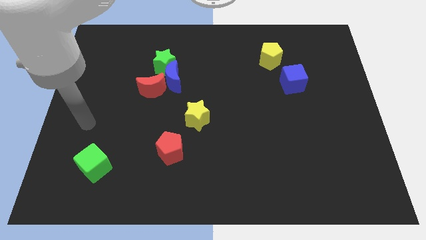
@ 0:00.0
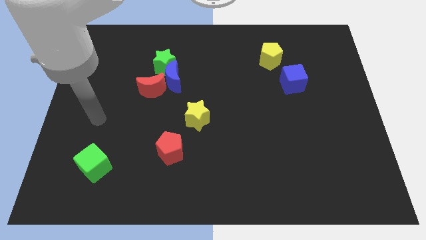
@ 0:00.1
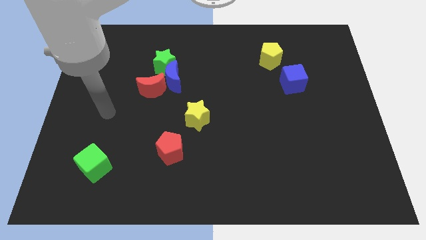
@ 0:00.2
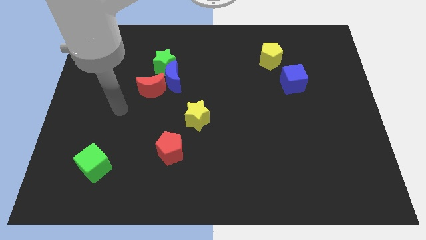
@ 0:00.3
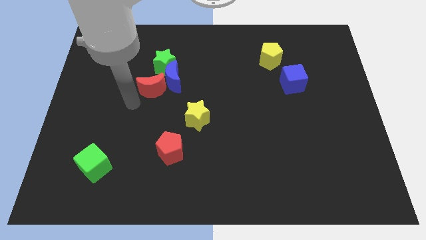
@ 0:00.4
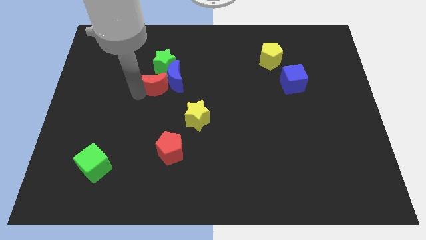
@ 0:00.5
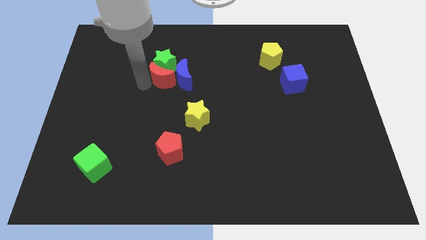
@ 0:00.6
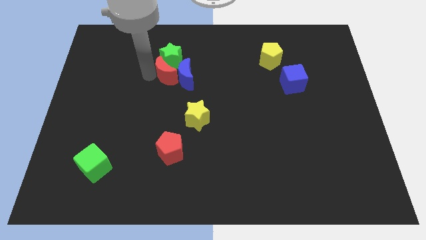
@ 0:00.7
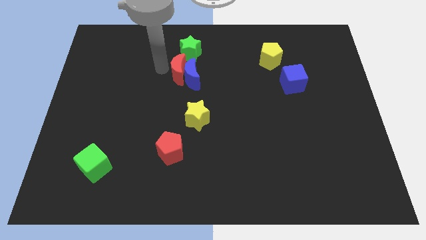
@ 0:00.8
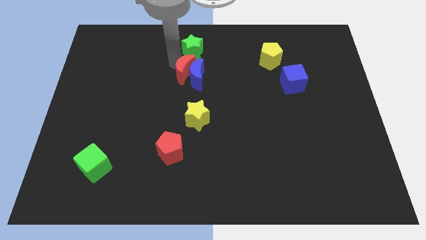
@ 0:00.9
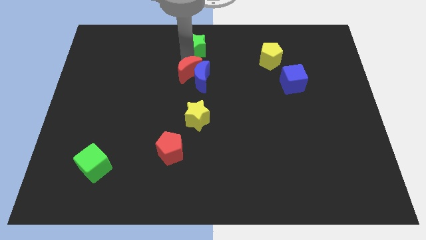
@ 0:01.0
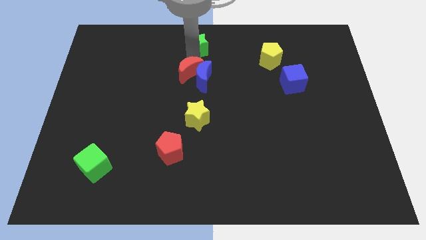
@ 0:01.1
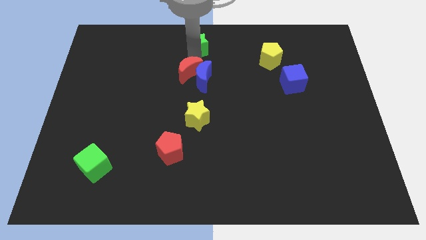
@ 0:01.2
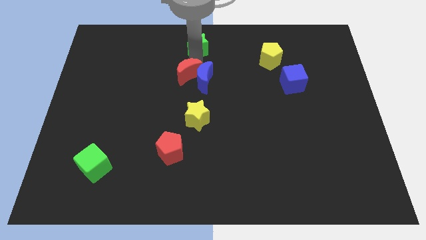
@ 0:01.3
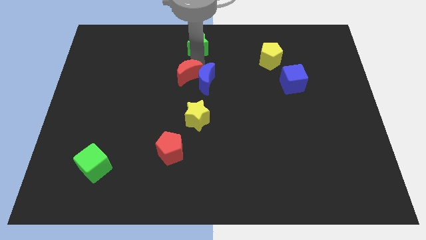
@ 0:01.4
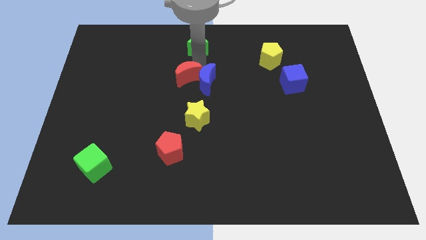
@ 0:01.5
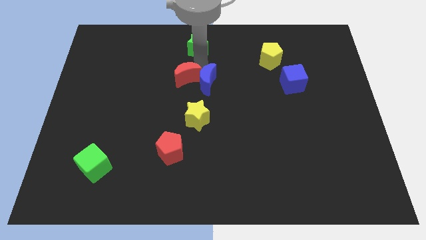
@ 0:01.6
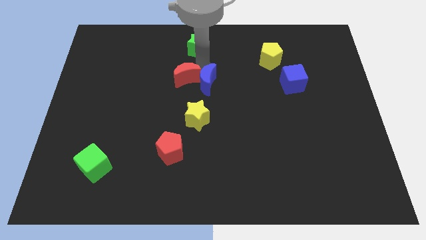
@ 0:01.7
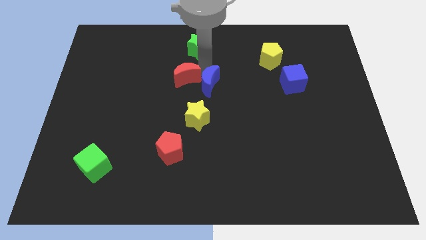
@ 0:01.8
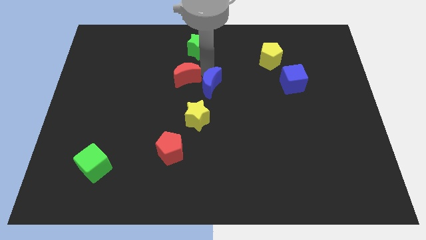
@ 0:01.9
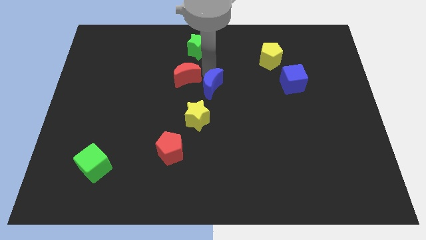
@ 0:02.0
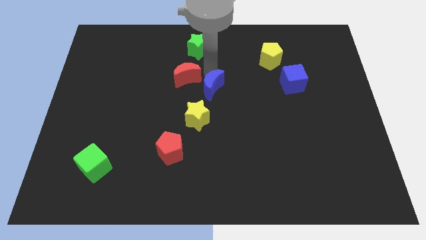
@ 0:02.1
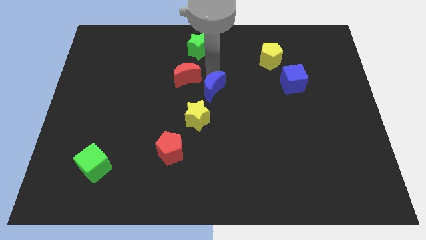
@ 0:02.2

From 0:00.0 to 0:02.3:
separate the blue moon from the green star and red moon

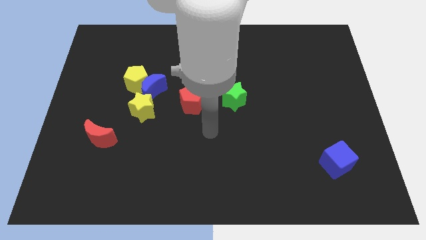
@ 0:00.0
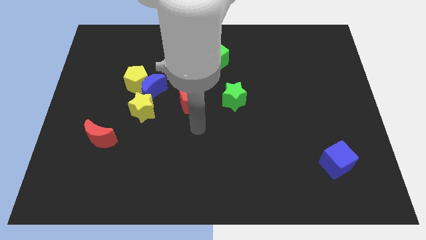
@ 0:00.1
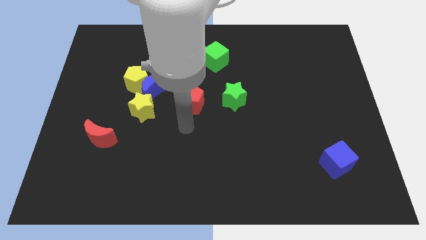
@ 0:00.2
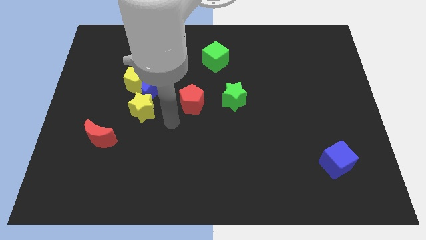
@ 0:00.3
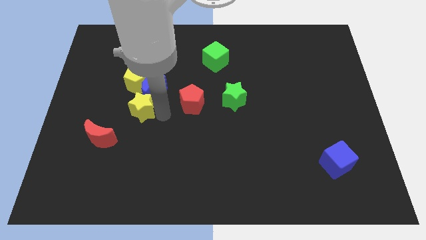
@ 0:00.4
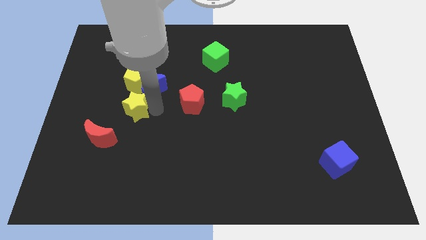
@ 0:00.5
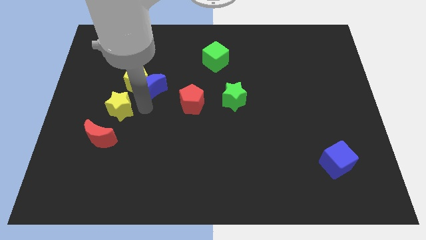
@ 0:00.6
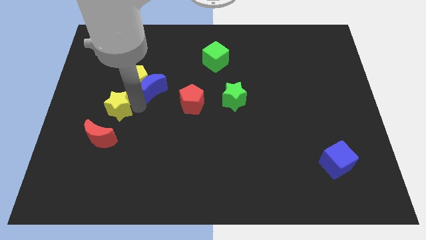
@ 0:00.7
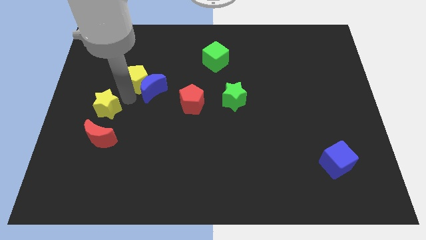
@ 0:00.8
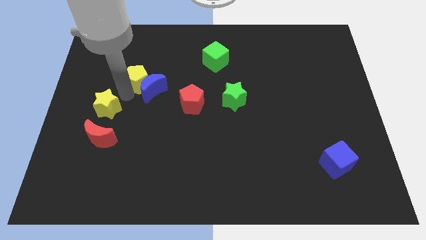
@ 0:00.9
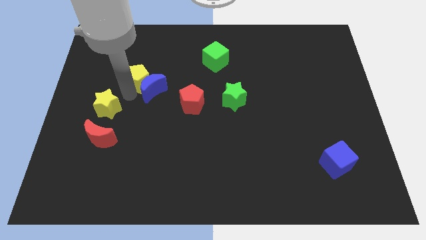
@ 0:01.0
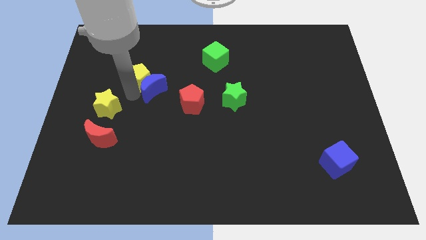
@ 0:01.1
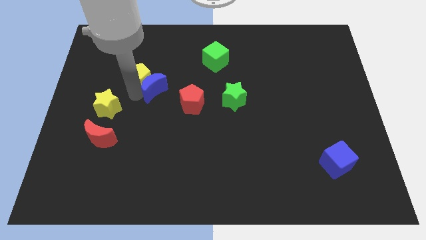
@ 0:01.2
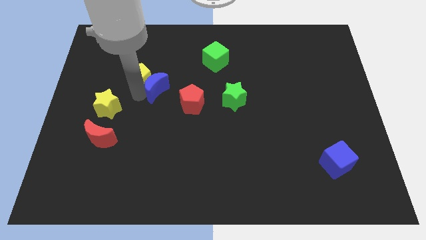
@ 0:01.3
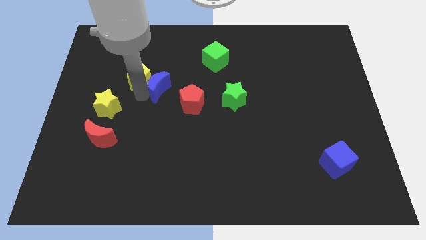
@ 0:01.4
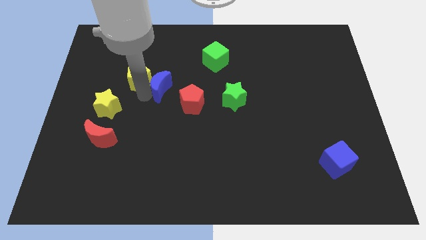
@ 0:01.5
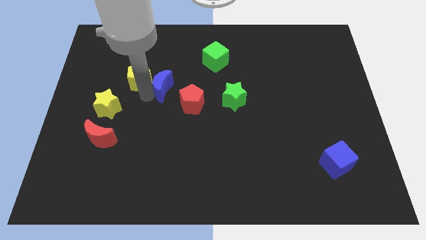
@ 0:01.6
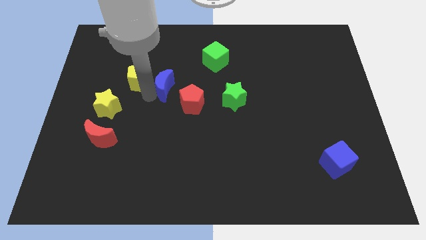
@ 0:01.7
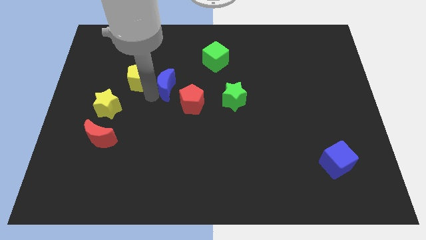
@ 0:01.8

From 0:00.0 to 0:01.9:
move the blue moon away from the yellow pentagon and yellow star

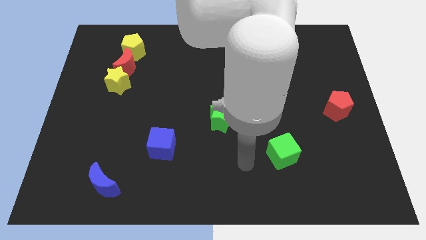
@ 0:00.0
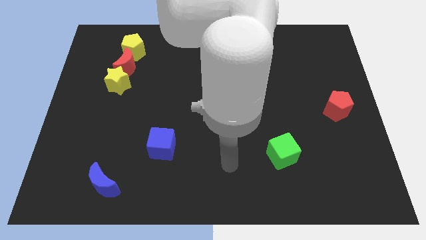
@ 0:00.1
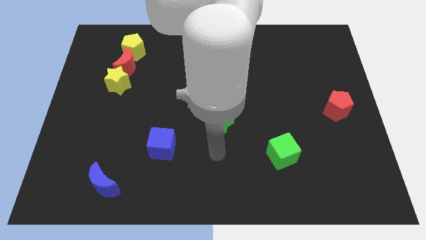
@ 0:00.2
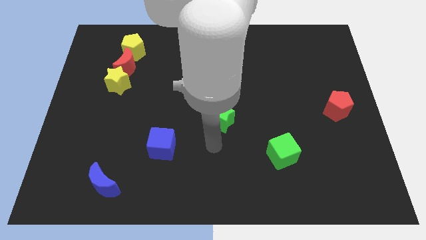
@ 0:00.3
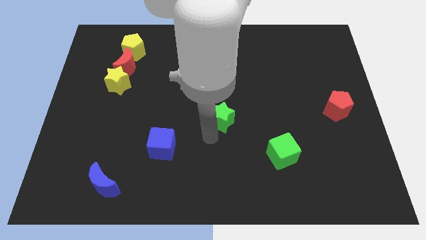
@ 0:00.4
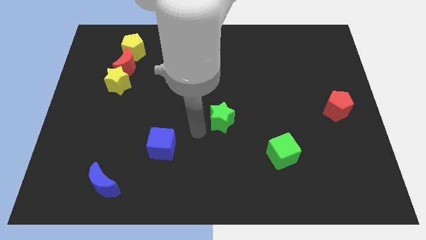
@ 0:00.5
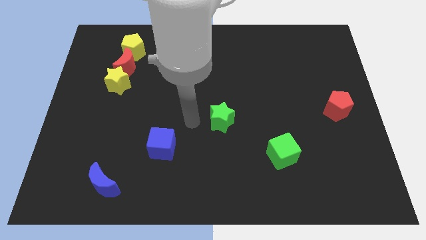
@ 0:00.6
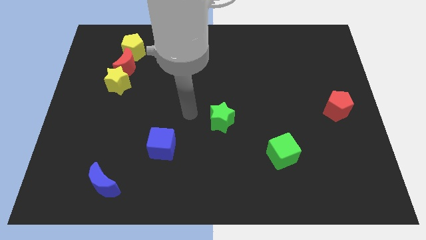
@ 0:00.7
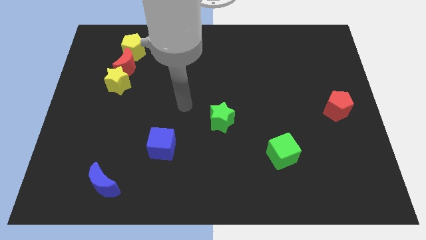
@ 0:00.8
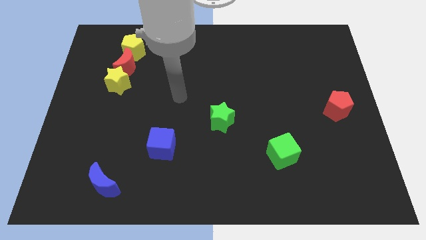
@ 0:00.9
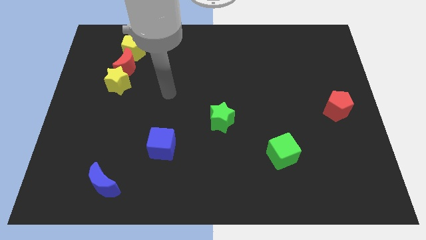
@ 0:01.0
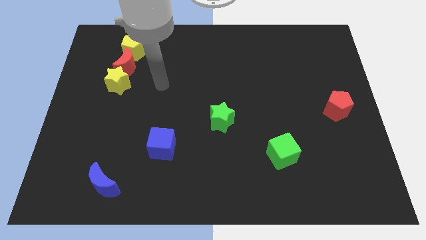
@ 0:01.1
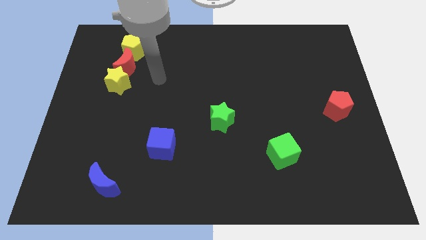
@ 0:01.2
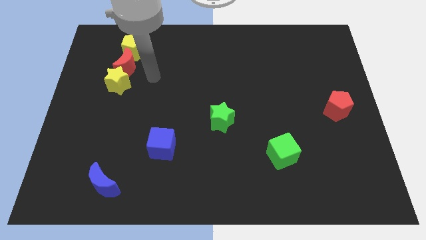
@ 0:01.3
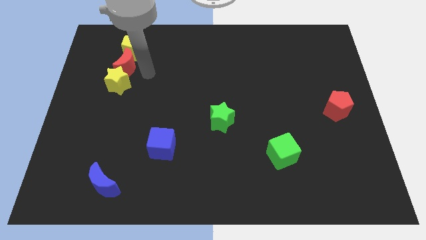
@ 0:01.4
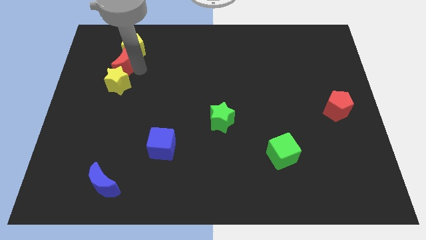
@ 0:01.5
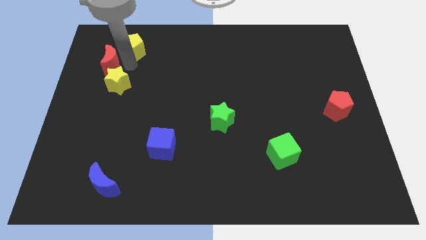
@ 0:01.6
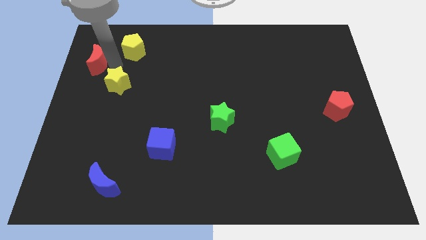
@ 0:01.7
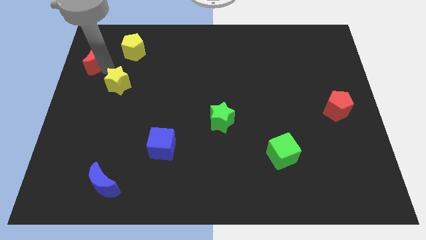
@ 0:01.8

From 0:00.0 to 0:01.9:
separate the yellow star from the red moon

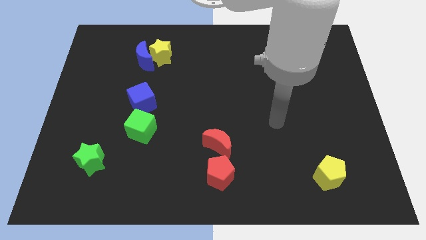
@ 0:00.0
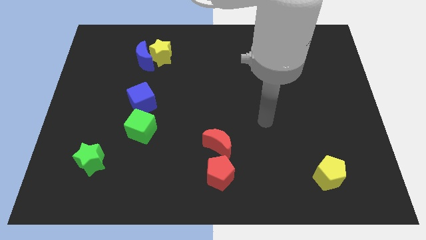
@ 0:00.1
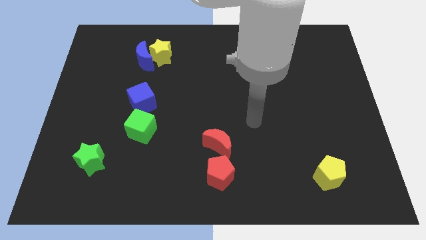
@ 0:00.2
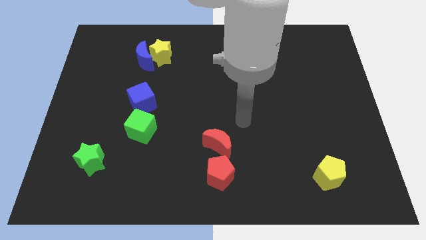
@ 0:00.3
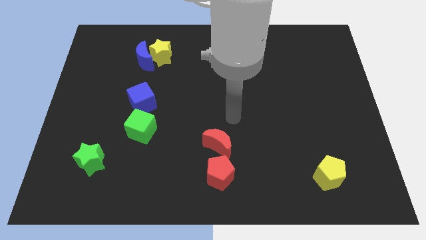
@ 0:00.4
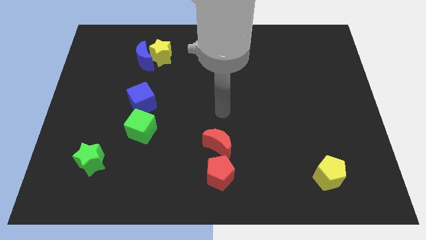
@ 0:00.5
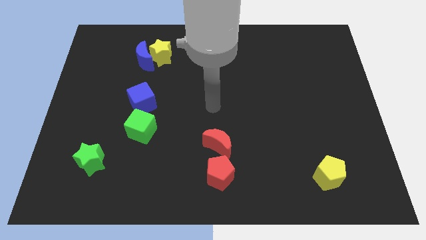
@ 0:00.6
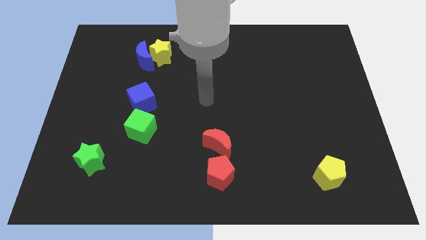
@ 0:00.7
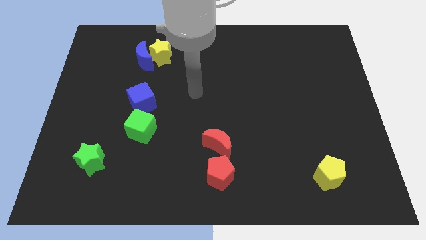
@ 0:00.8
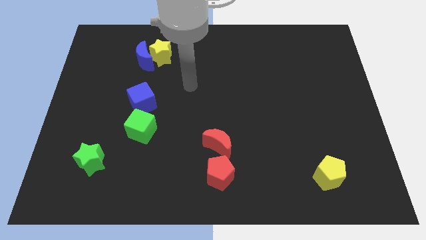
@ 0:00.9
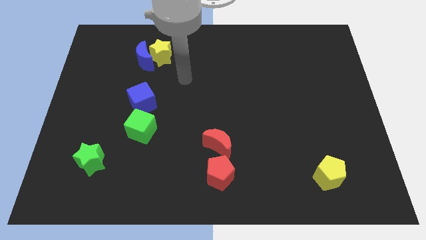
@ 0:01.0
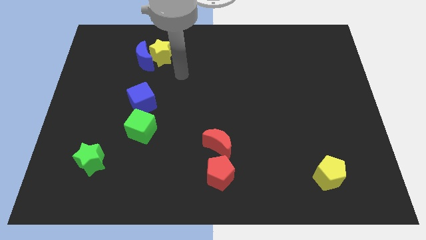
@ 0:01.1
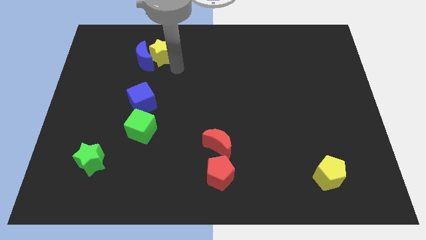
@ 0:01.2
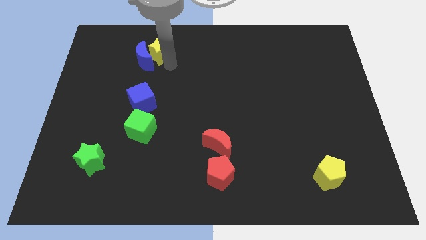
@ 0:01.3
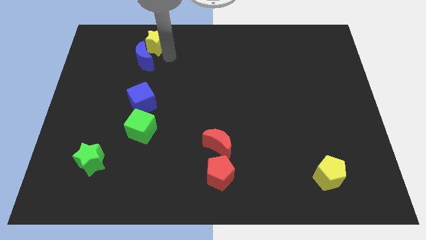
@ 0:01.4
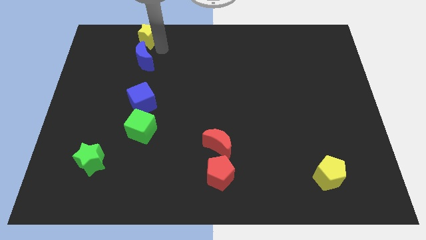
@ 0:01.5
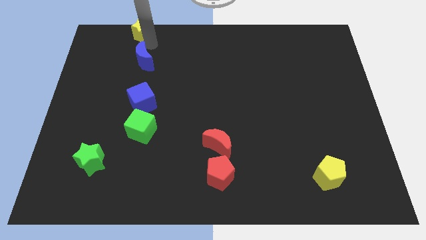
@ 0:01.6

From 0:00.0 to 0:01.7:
separate the blue moon from the yellow star

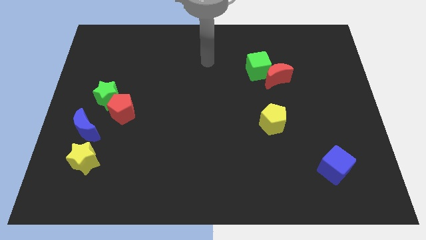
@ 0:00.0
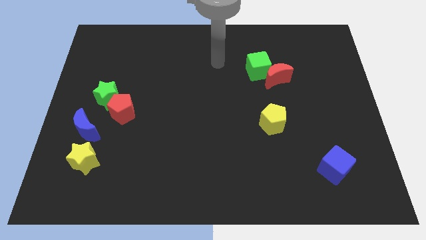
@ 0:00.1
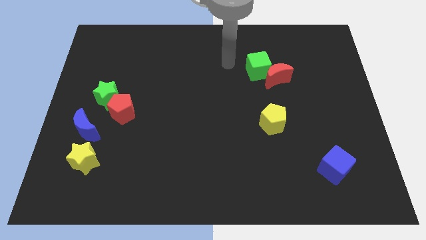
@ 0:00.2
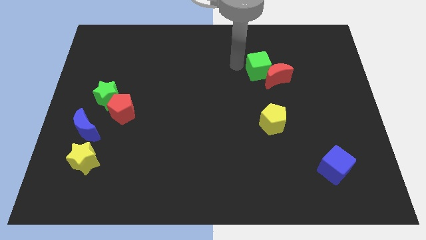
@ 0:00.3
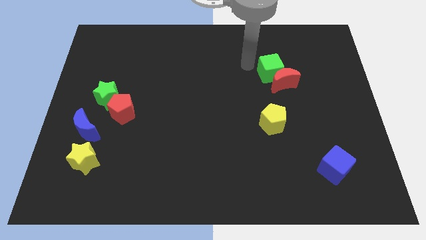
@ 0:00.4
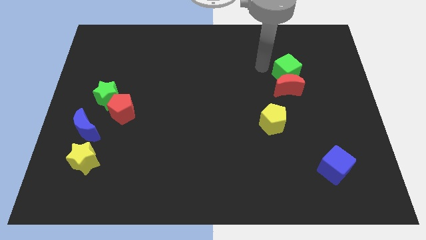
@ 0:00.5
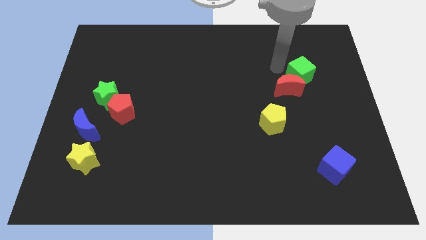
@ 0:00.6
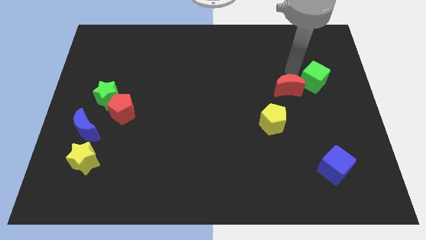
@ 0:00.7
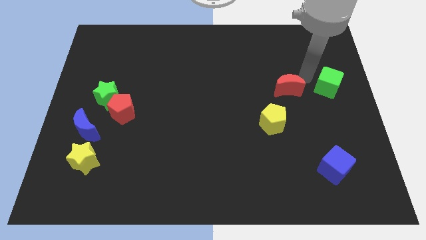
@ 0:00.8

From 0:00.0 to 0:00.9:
move the red moon away from the green cube

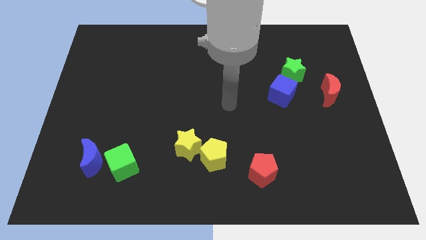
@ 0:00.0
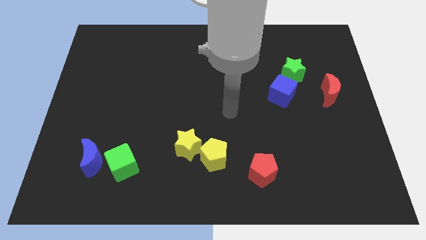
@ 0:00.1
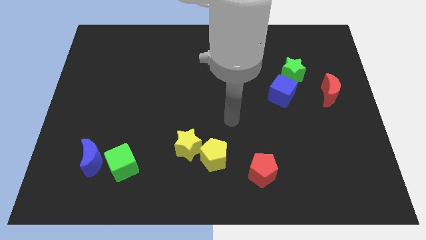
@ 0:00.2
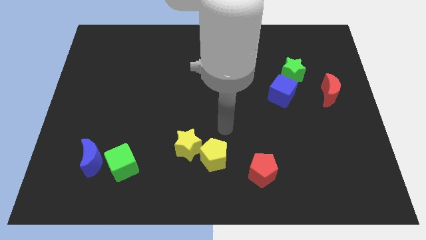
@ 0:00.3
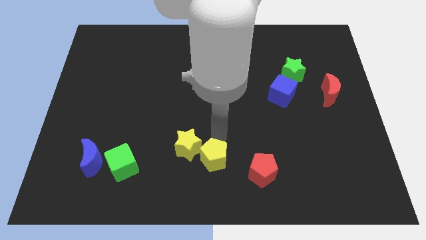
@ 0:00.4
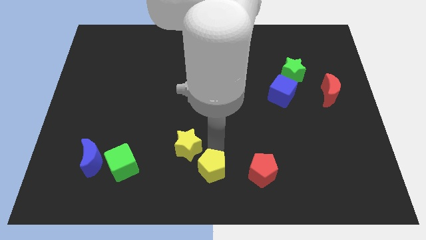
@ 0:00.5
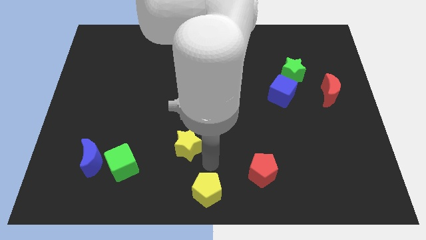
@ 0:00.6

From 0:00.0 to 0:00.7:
separate the yellow star from the yellow pentagon
